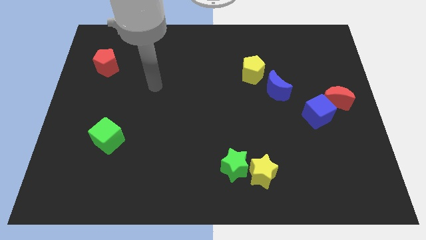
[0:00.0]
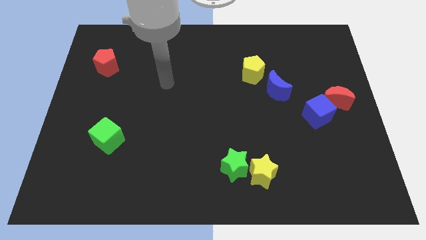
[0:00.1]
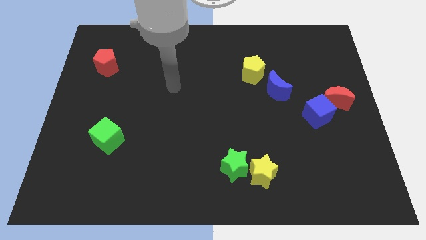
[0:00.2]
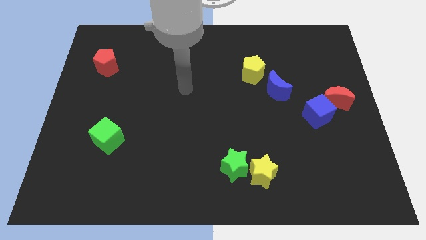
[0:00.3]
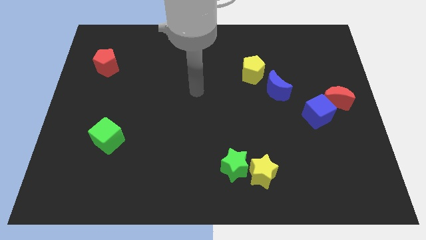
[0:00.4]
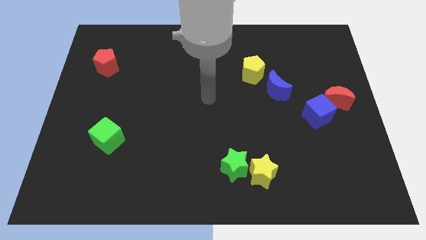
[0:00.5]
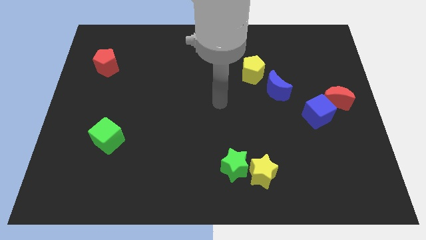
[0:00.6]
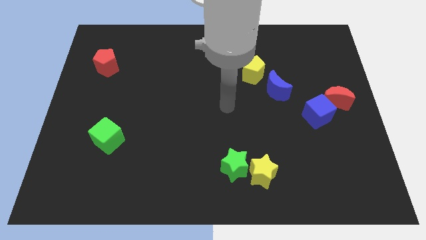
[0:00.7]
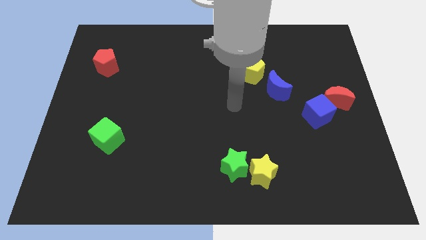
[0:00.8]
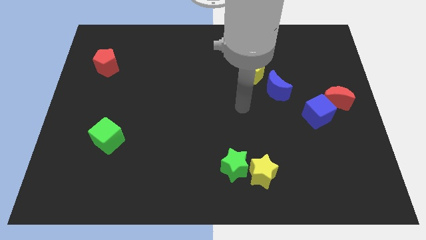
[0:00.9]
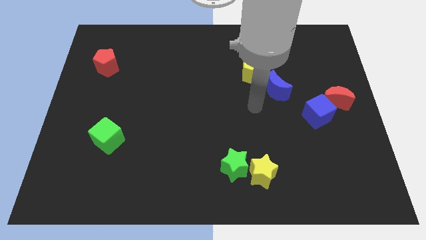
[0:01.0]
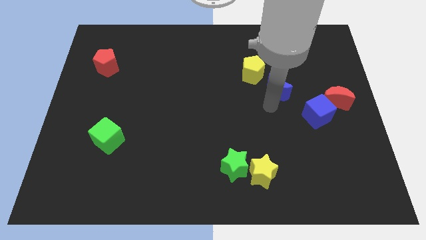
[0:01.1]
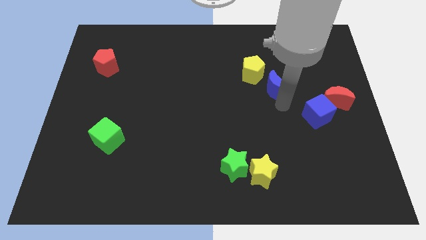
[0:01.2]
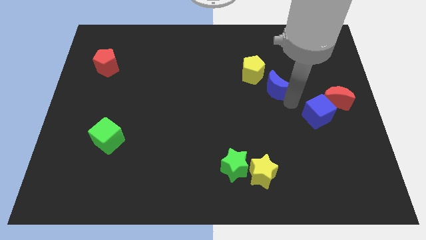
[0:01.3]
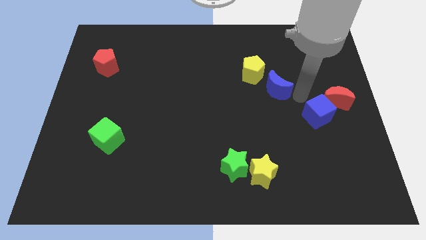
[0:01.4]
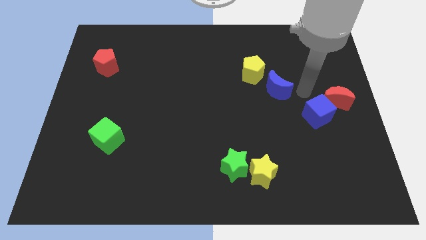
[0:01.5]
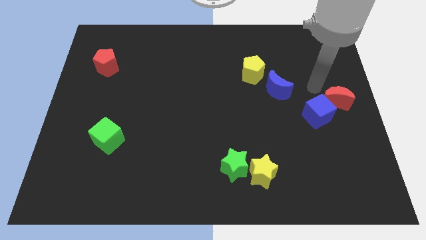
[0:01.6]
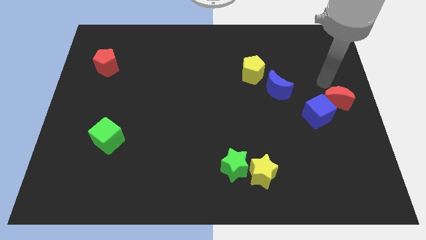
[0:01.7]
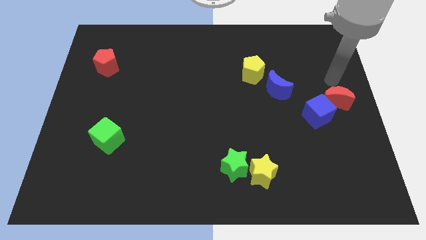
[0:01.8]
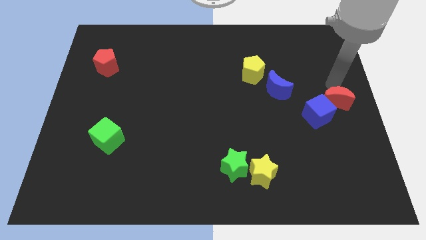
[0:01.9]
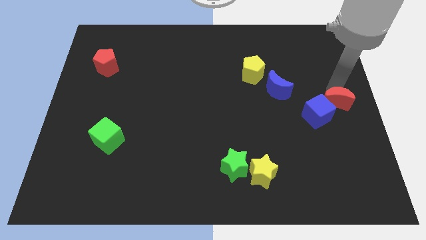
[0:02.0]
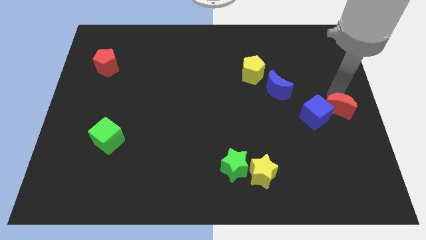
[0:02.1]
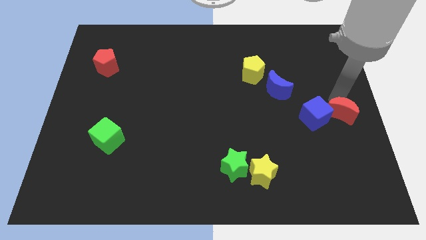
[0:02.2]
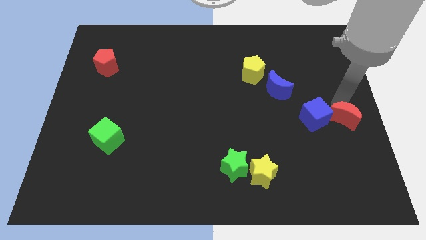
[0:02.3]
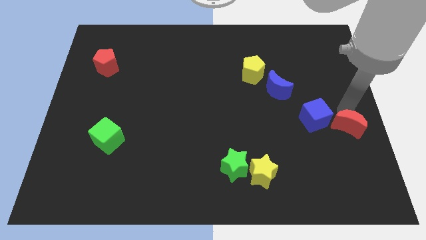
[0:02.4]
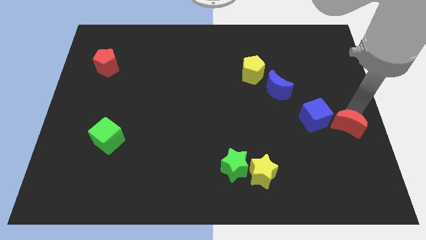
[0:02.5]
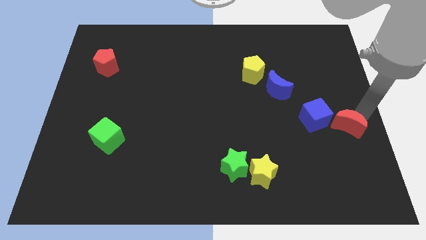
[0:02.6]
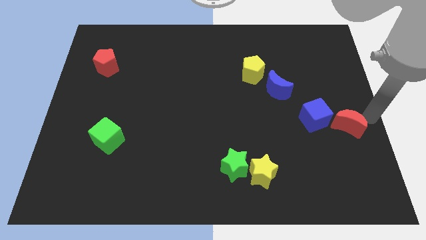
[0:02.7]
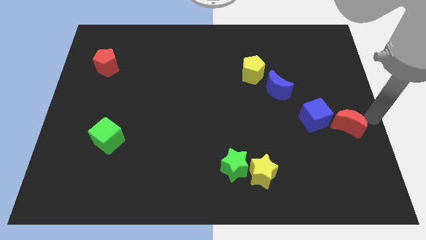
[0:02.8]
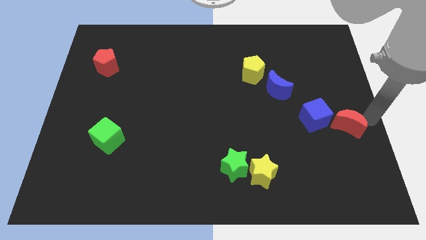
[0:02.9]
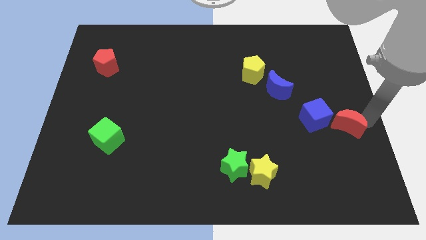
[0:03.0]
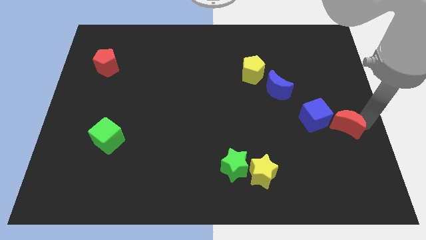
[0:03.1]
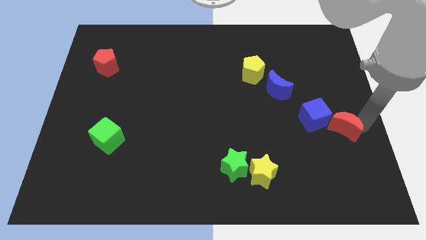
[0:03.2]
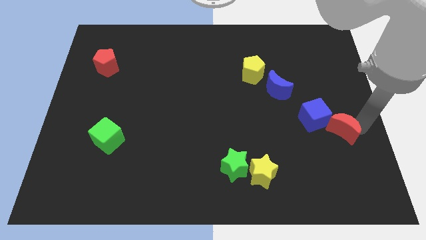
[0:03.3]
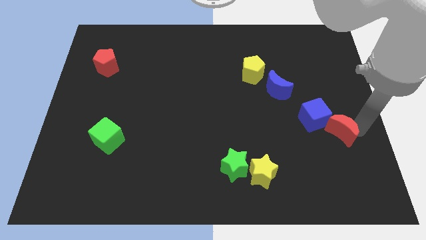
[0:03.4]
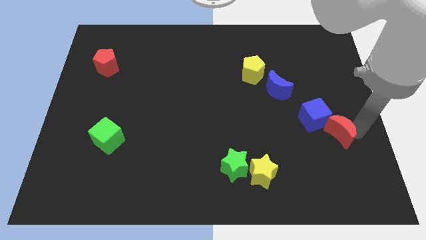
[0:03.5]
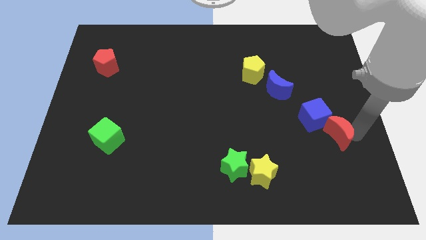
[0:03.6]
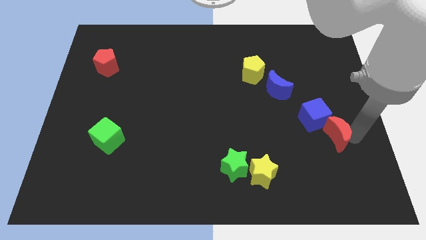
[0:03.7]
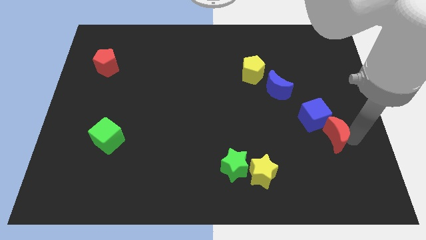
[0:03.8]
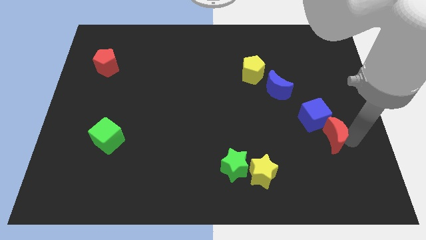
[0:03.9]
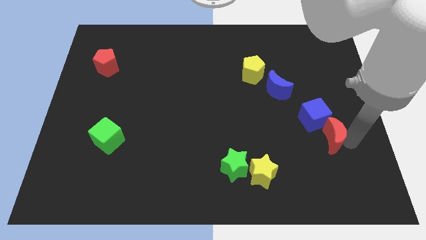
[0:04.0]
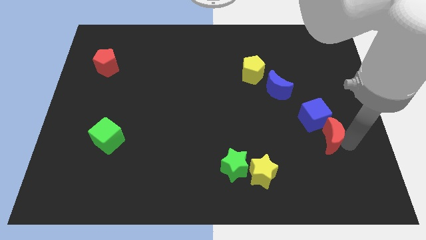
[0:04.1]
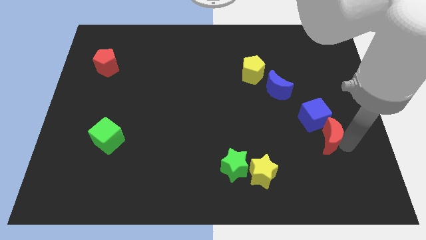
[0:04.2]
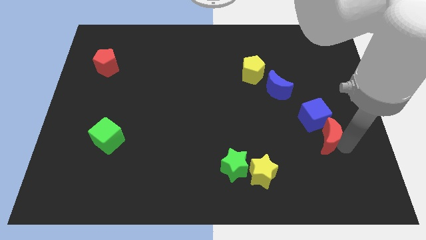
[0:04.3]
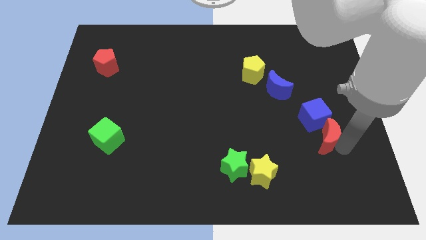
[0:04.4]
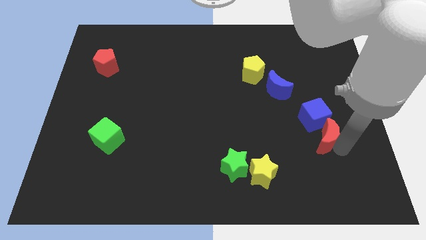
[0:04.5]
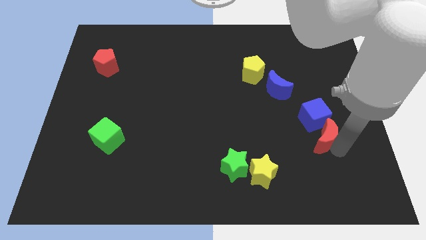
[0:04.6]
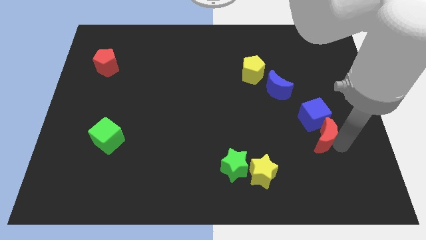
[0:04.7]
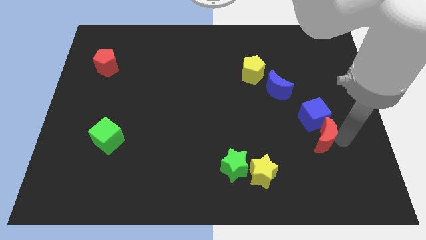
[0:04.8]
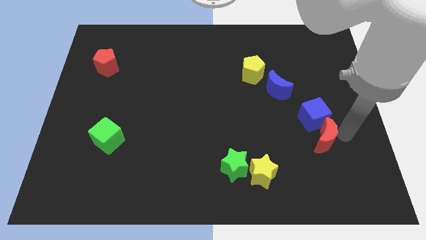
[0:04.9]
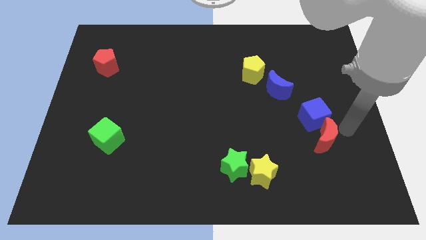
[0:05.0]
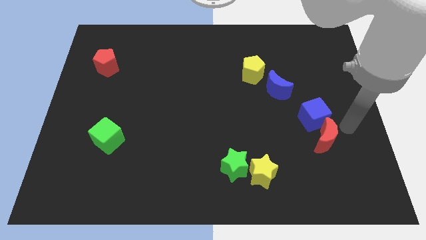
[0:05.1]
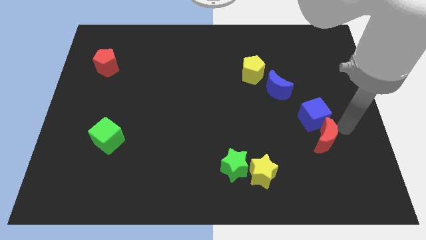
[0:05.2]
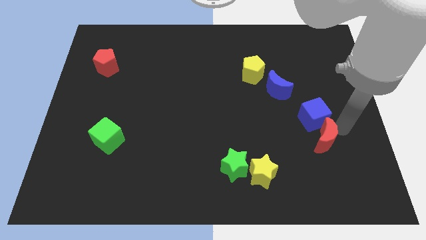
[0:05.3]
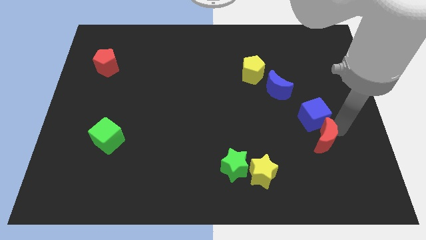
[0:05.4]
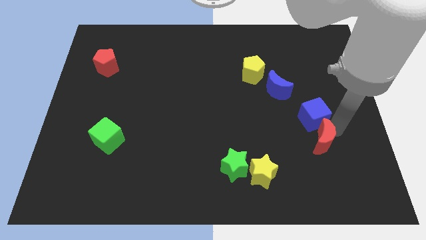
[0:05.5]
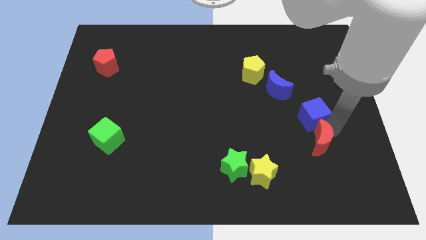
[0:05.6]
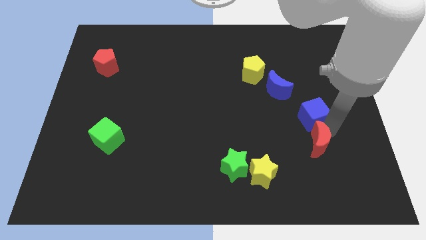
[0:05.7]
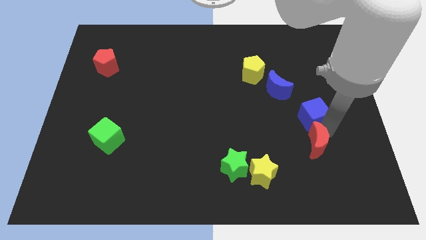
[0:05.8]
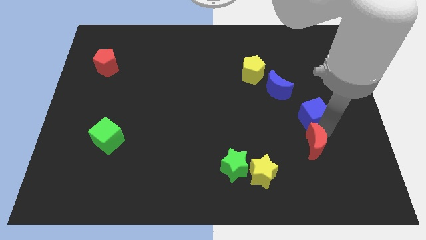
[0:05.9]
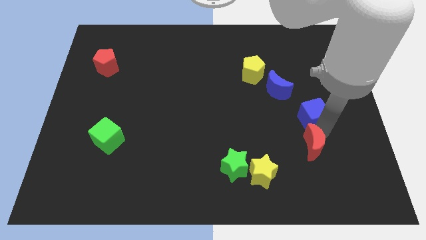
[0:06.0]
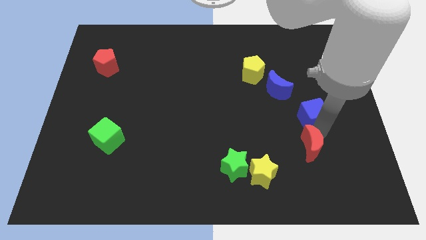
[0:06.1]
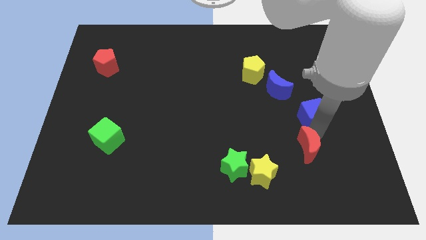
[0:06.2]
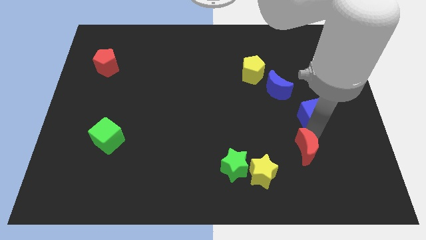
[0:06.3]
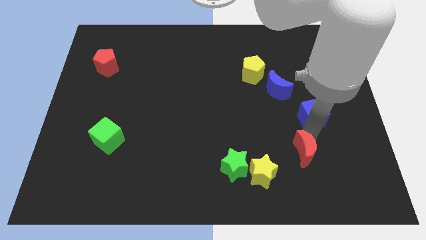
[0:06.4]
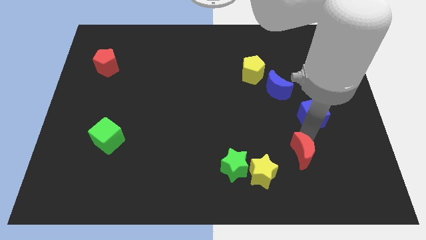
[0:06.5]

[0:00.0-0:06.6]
move the red moon to the right of the green star

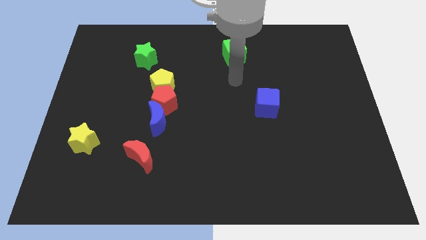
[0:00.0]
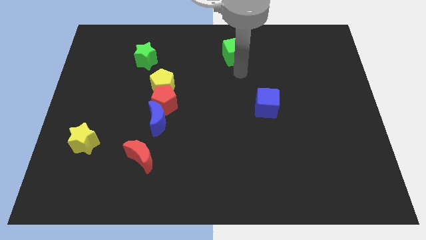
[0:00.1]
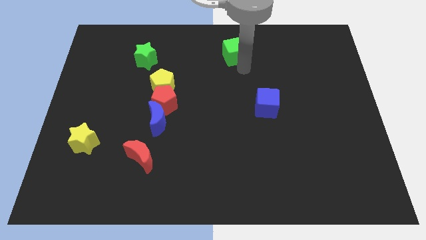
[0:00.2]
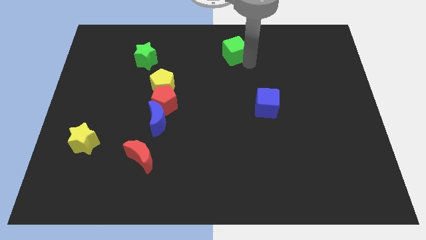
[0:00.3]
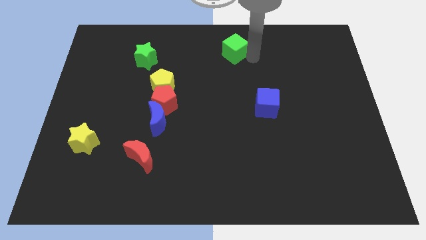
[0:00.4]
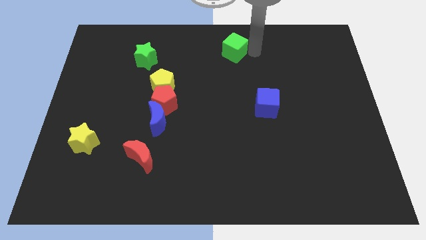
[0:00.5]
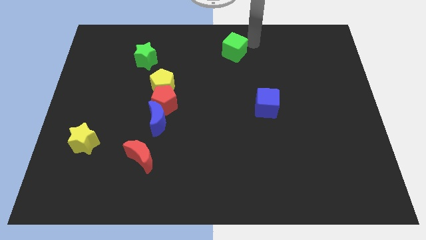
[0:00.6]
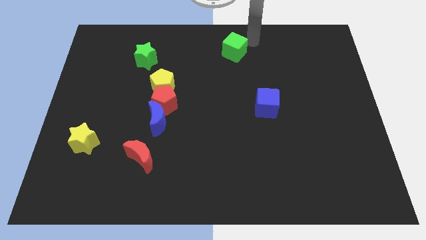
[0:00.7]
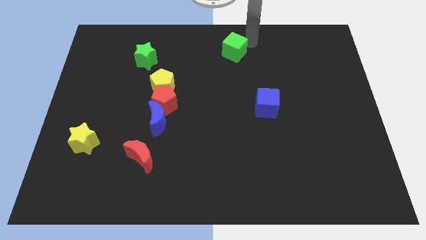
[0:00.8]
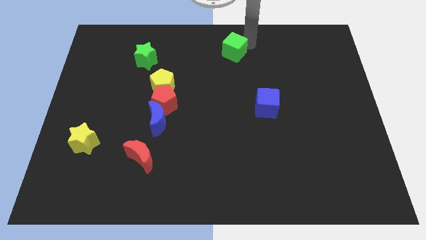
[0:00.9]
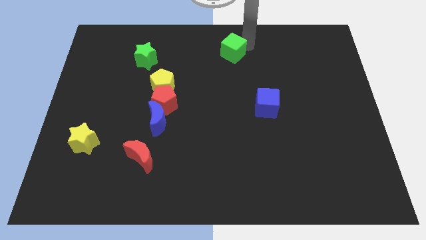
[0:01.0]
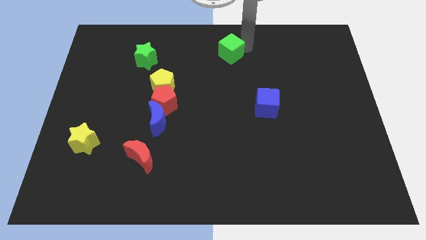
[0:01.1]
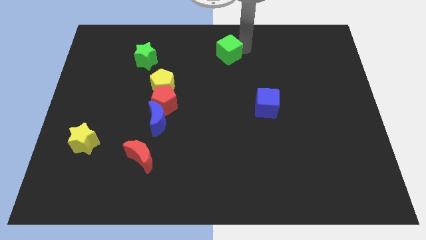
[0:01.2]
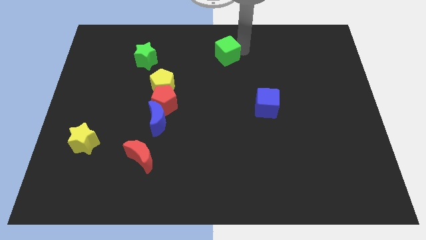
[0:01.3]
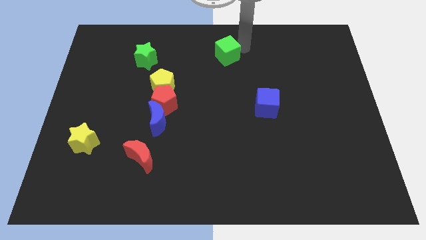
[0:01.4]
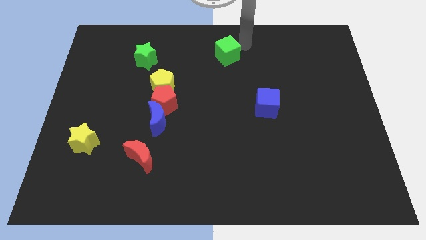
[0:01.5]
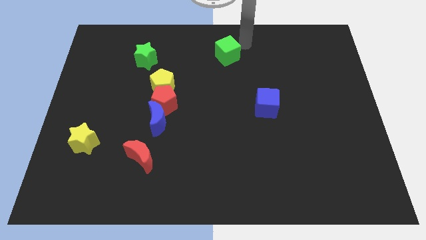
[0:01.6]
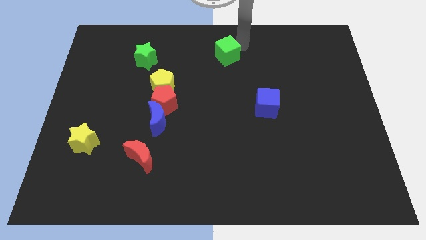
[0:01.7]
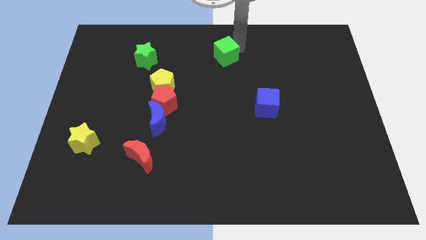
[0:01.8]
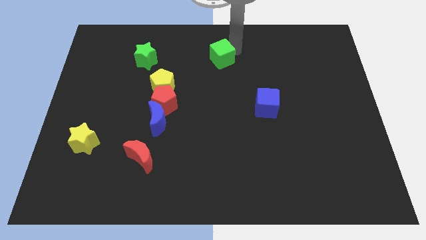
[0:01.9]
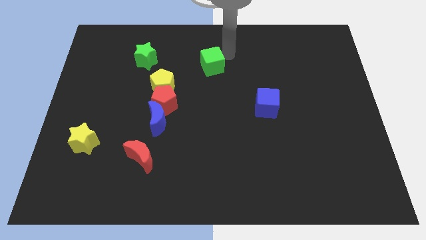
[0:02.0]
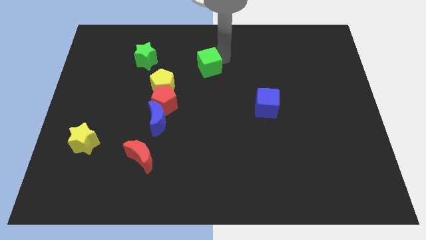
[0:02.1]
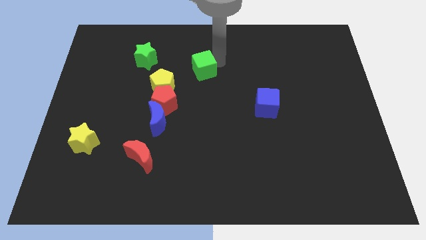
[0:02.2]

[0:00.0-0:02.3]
slide the green cube to the top right side of the yellow pentagon
